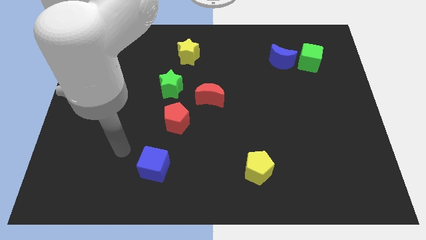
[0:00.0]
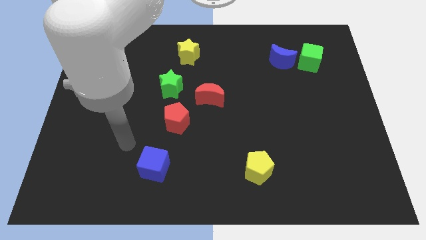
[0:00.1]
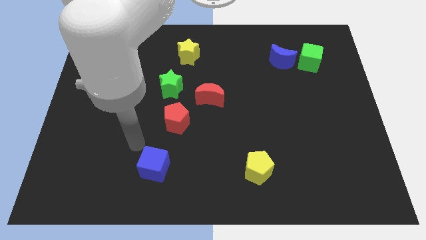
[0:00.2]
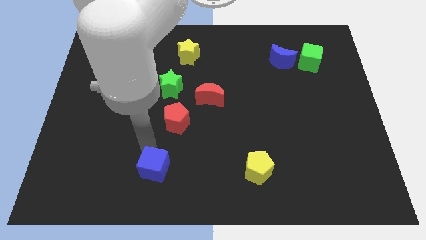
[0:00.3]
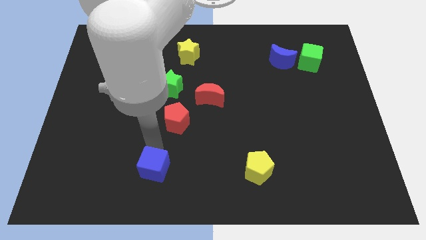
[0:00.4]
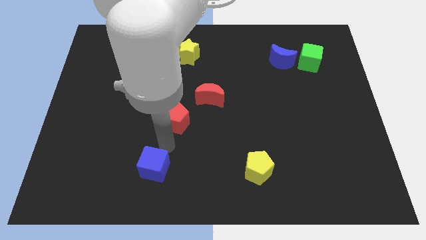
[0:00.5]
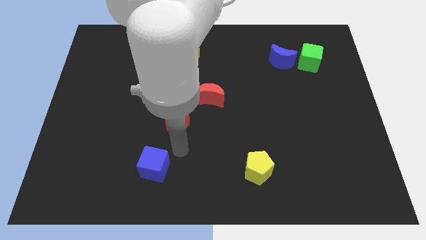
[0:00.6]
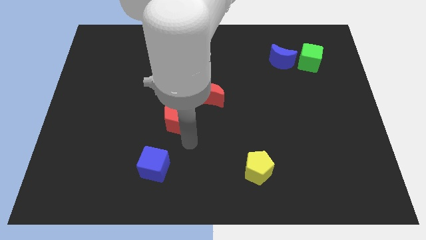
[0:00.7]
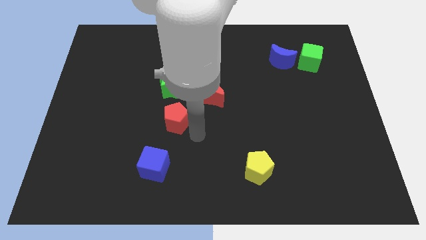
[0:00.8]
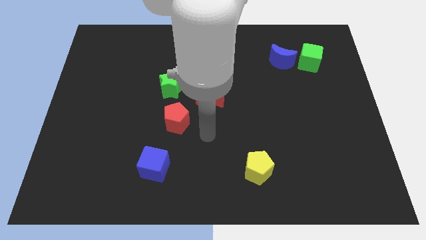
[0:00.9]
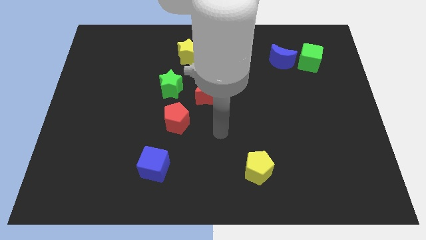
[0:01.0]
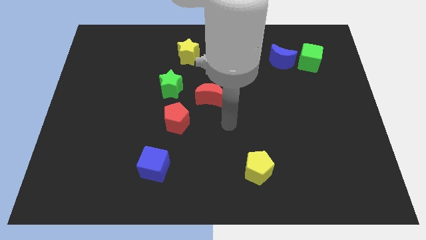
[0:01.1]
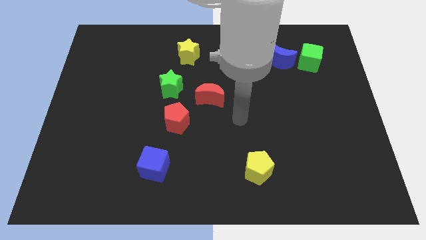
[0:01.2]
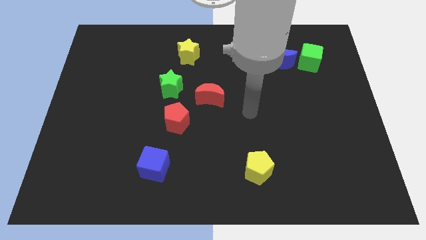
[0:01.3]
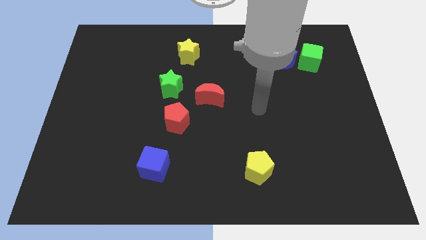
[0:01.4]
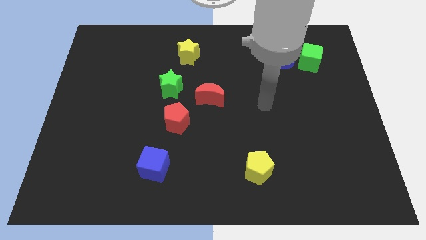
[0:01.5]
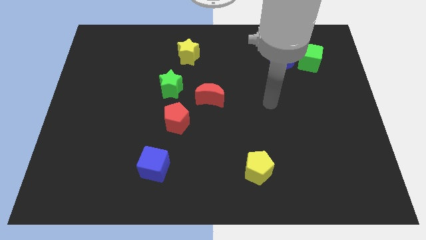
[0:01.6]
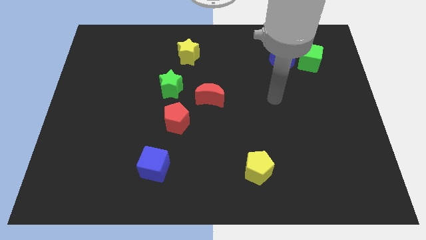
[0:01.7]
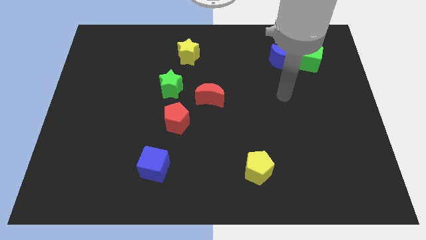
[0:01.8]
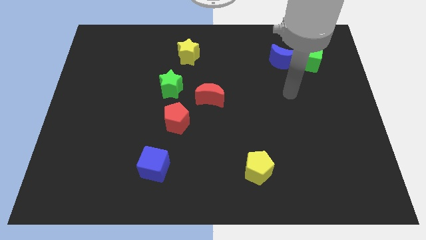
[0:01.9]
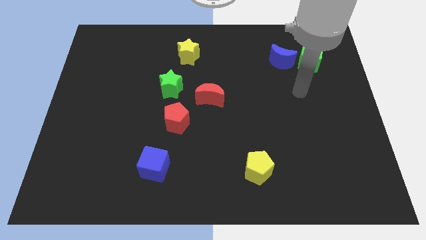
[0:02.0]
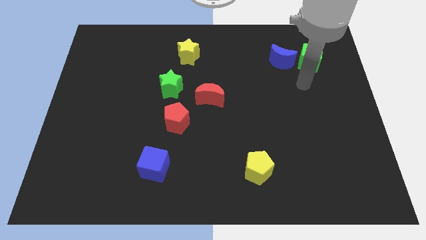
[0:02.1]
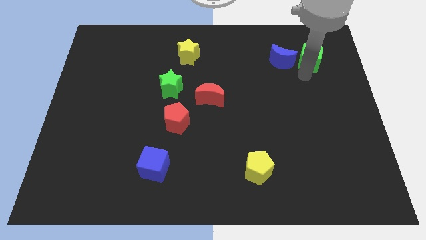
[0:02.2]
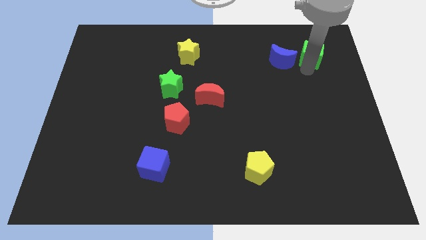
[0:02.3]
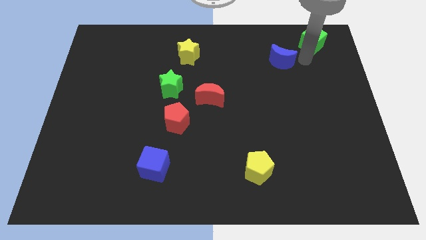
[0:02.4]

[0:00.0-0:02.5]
pull the blue moon apart from the green cube

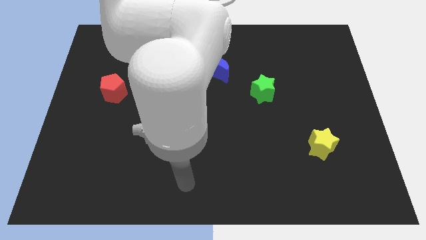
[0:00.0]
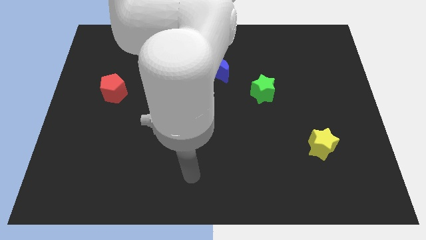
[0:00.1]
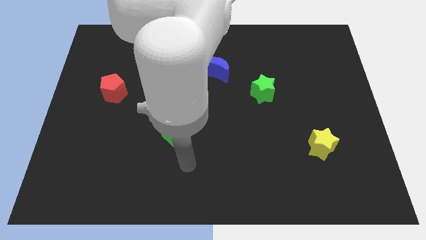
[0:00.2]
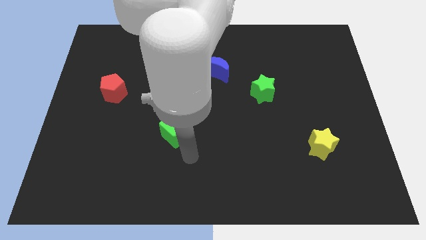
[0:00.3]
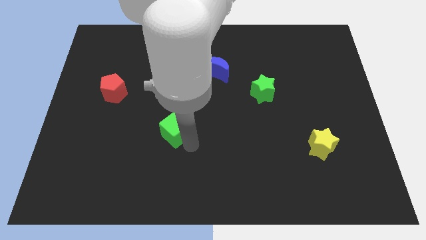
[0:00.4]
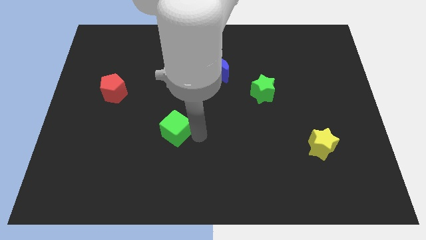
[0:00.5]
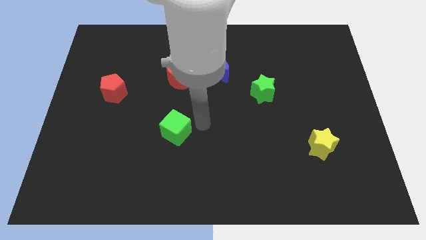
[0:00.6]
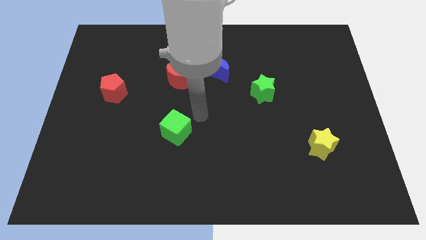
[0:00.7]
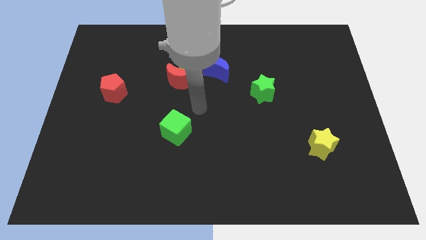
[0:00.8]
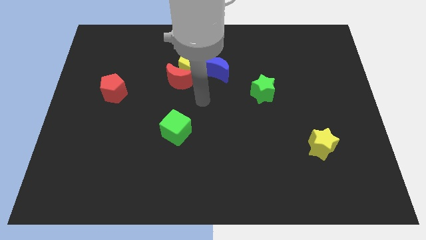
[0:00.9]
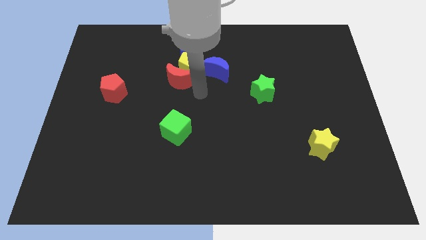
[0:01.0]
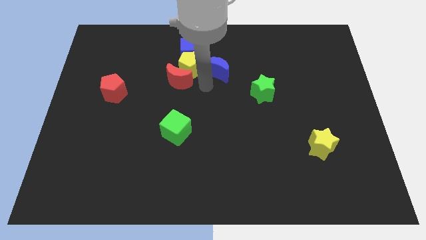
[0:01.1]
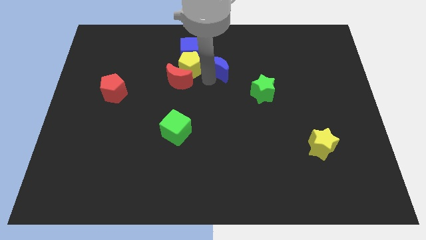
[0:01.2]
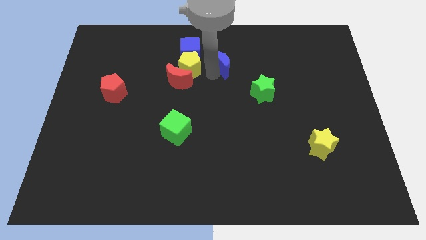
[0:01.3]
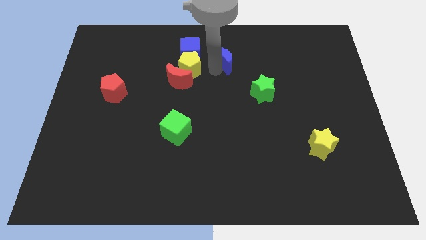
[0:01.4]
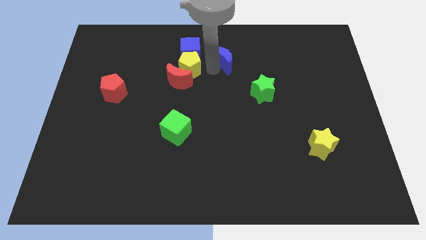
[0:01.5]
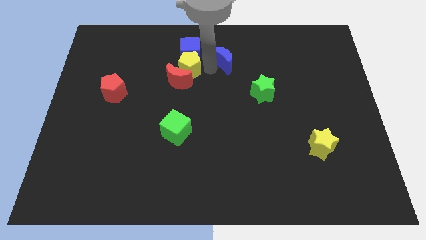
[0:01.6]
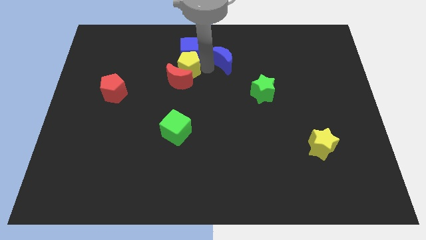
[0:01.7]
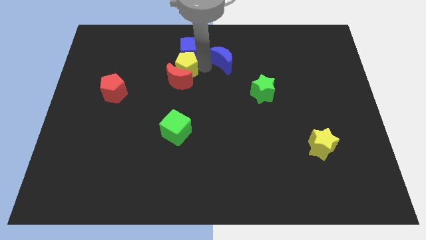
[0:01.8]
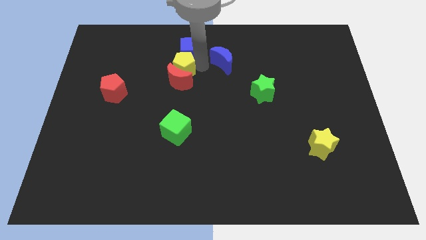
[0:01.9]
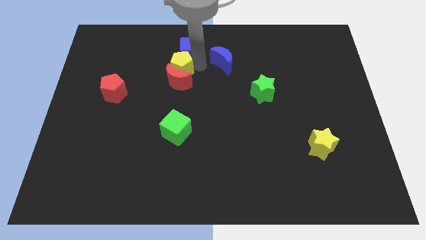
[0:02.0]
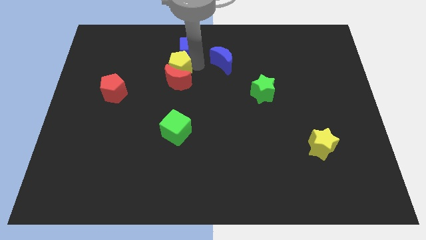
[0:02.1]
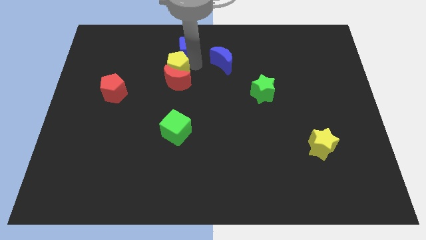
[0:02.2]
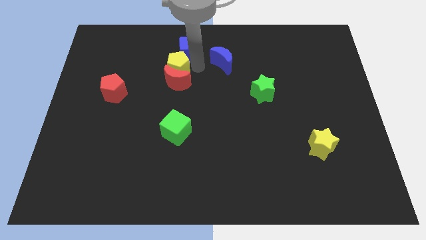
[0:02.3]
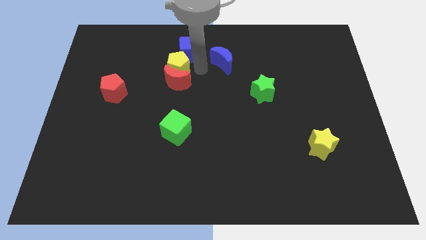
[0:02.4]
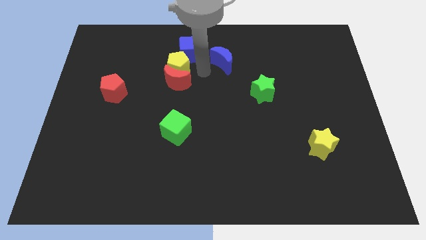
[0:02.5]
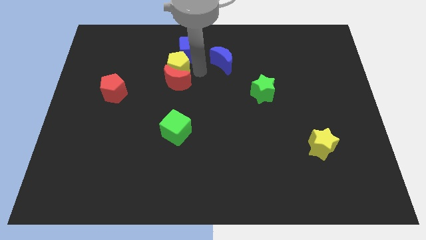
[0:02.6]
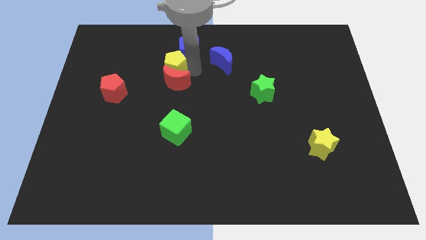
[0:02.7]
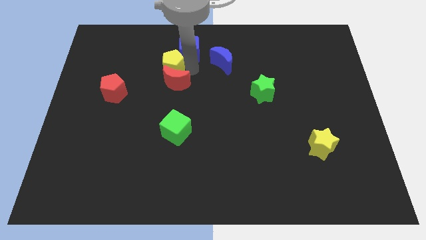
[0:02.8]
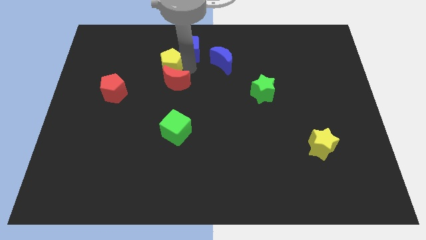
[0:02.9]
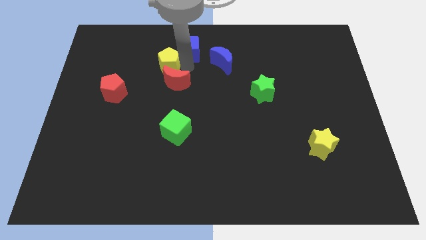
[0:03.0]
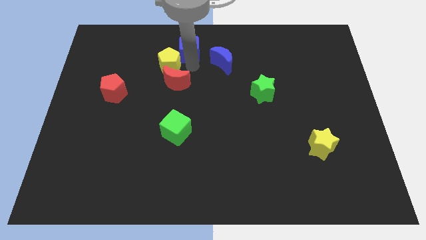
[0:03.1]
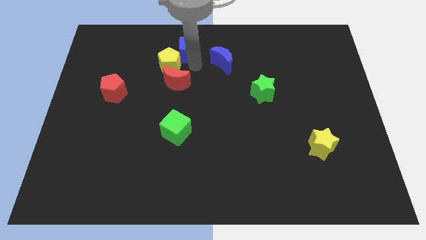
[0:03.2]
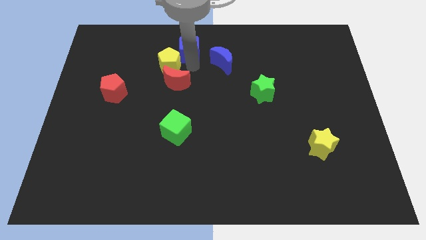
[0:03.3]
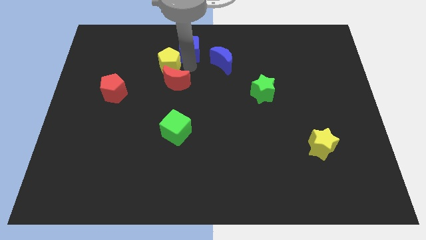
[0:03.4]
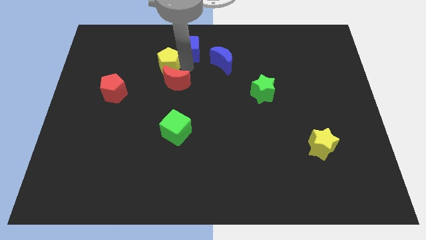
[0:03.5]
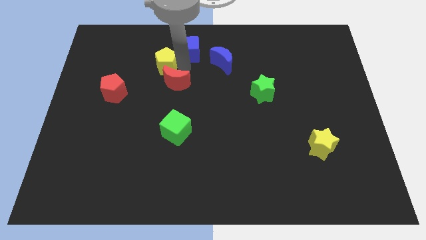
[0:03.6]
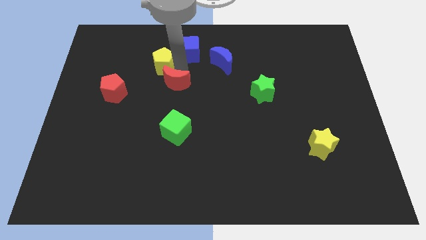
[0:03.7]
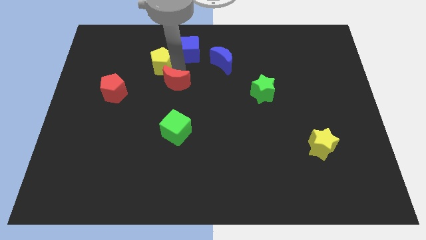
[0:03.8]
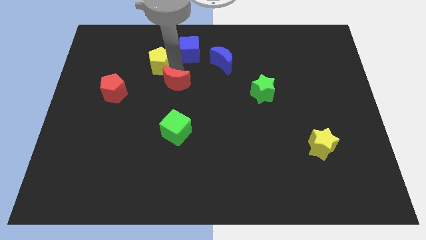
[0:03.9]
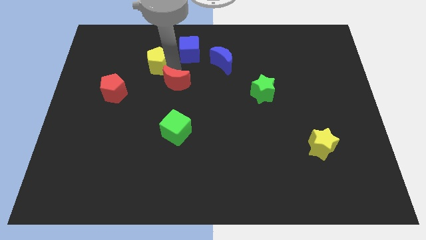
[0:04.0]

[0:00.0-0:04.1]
move the yellow pentagon away from the clump

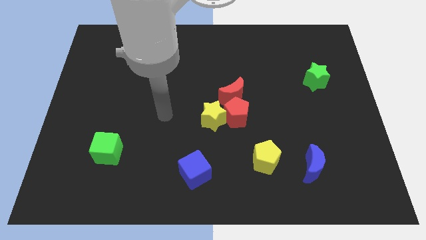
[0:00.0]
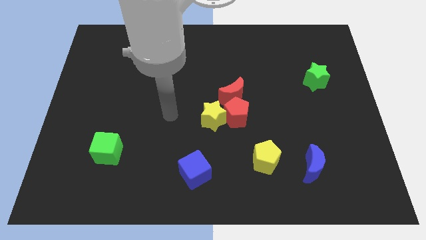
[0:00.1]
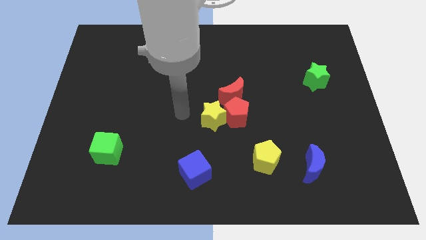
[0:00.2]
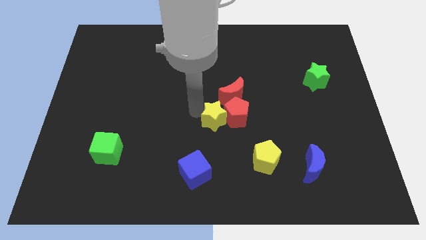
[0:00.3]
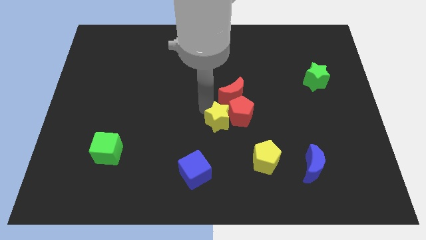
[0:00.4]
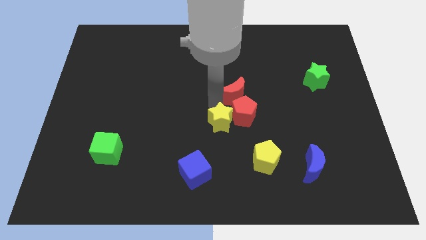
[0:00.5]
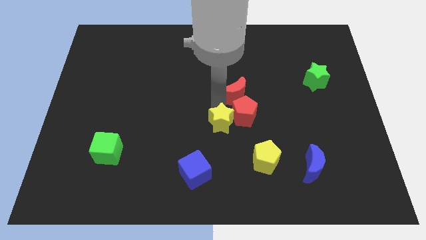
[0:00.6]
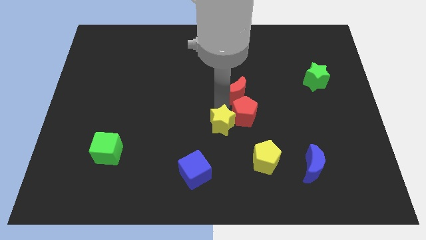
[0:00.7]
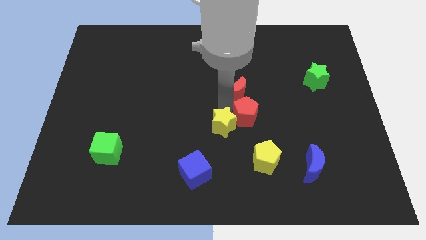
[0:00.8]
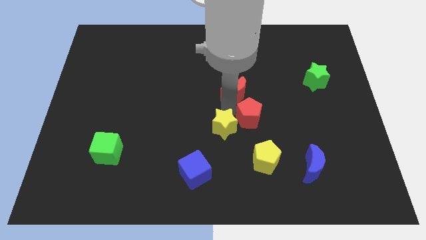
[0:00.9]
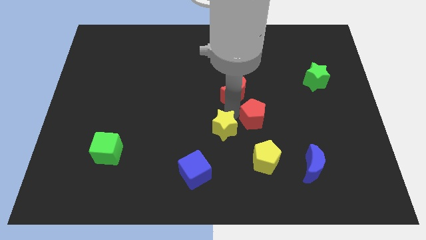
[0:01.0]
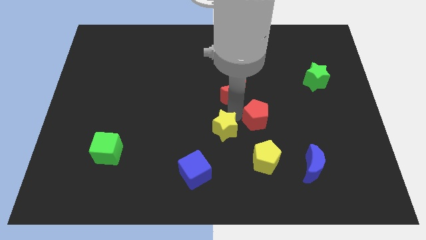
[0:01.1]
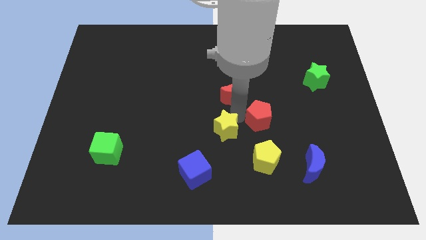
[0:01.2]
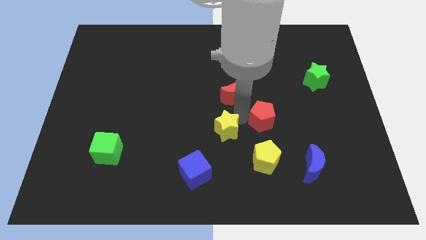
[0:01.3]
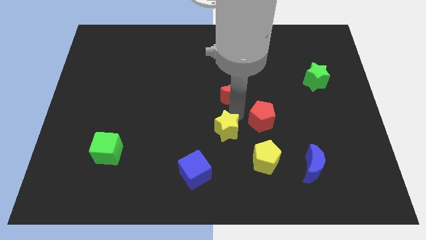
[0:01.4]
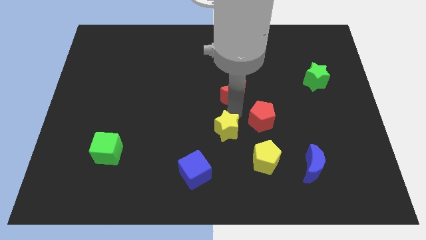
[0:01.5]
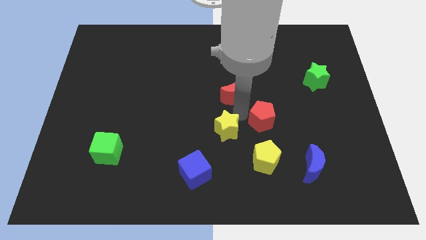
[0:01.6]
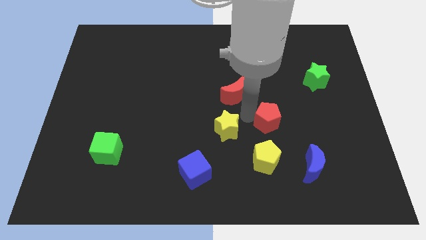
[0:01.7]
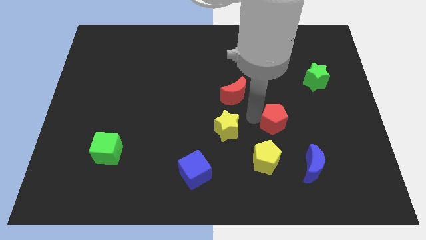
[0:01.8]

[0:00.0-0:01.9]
pull the red pentagon apart from the yellow star and red moon

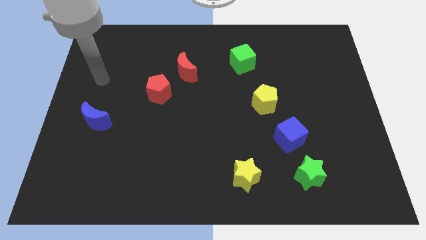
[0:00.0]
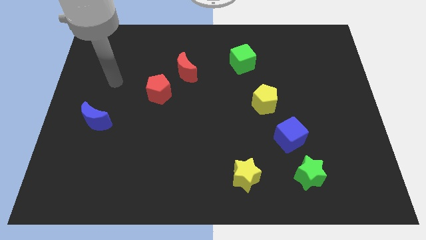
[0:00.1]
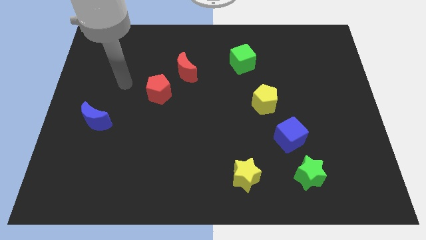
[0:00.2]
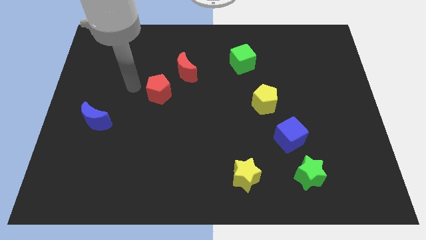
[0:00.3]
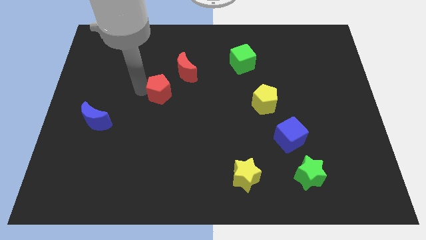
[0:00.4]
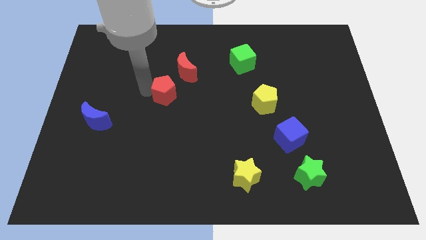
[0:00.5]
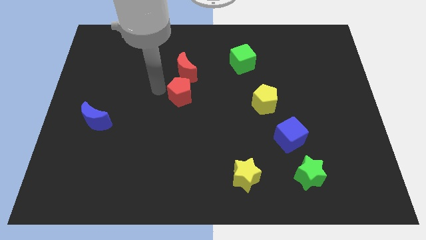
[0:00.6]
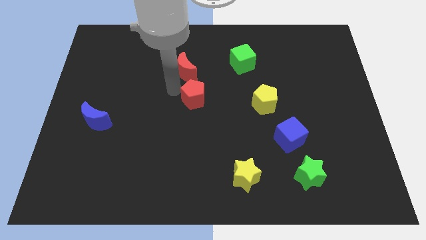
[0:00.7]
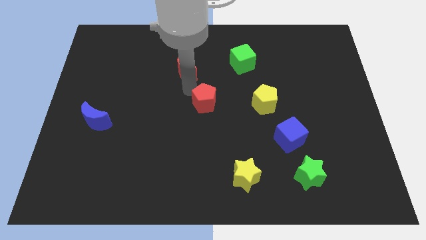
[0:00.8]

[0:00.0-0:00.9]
move the red moon away from the red pentagon

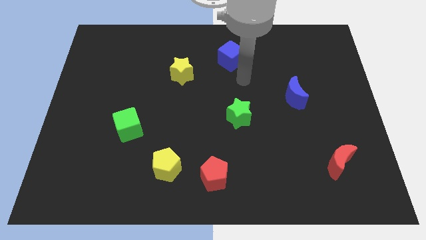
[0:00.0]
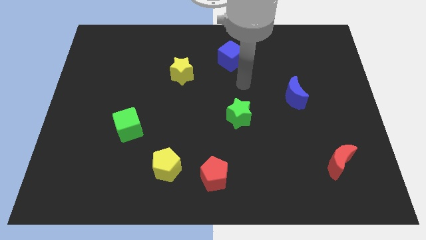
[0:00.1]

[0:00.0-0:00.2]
pull the red pentagon apart from the yellow pentagon
